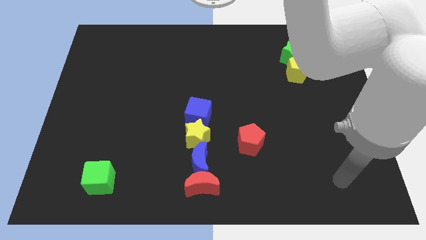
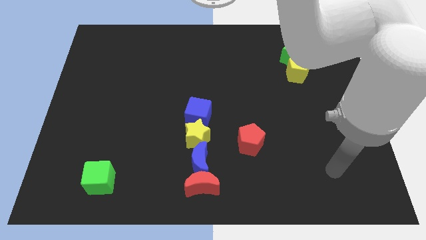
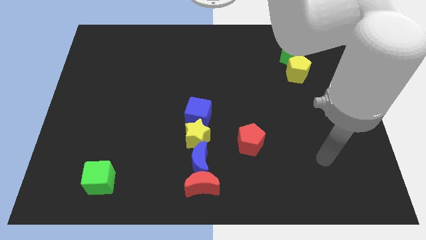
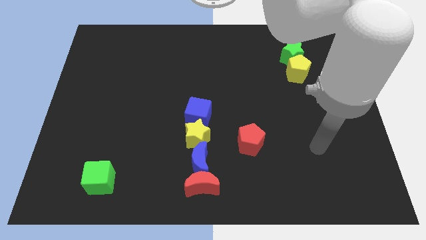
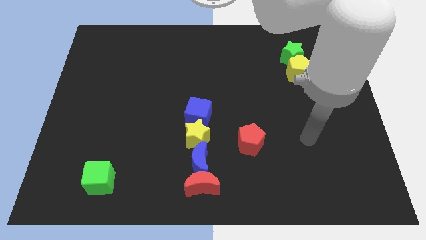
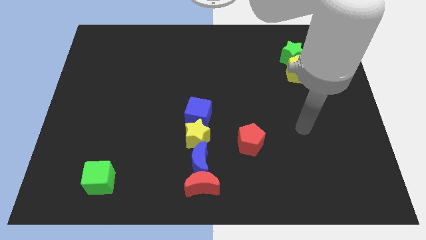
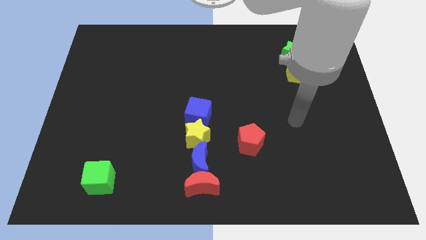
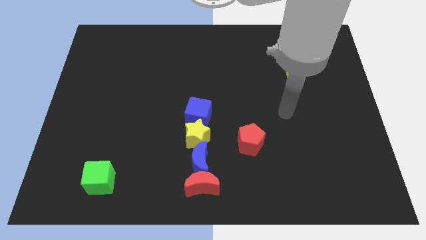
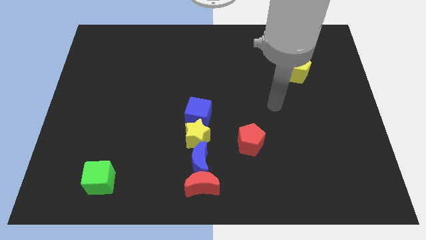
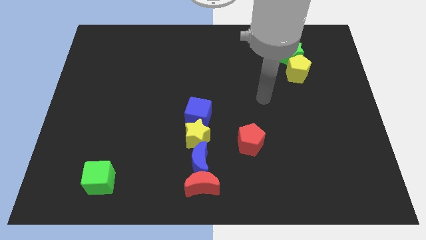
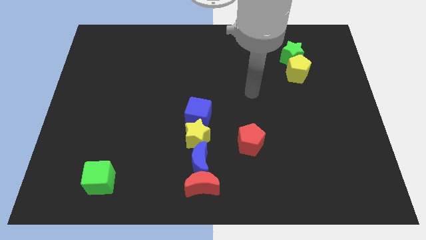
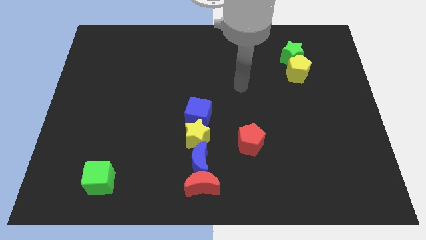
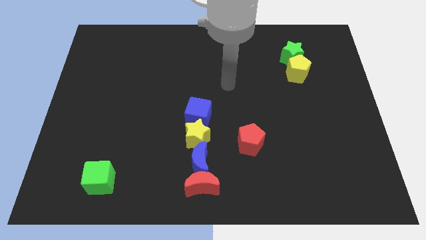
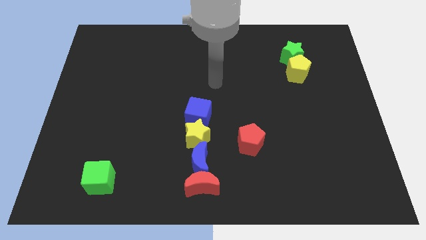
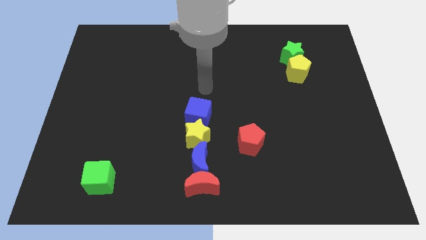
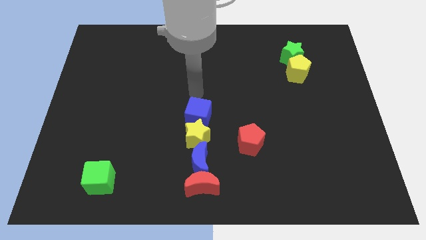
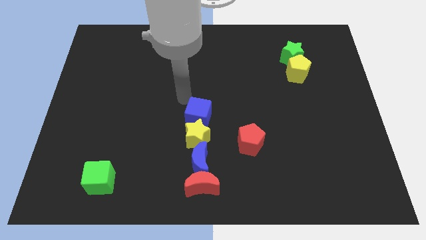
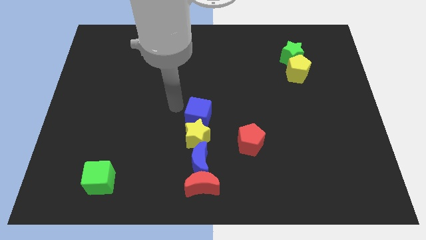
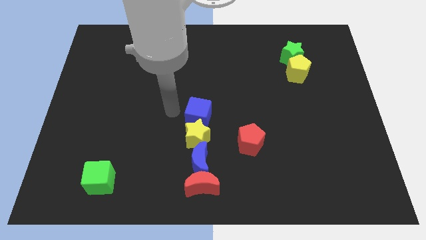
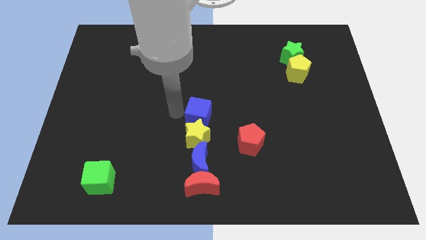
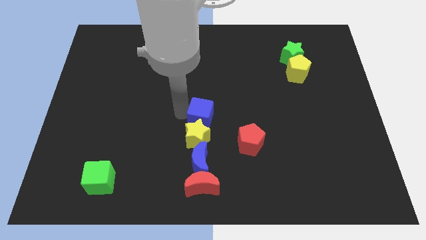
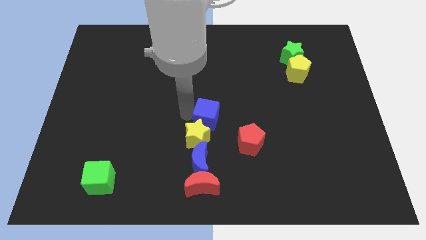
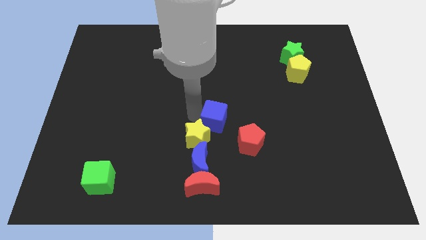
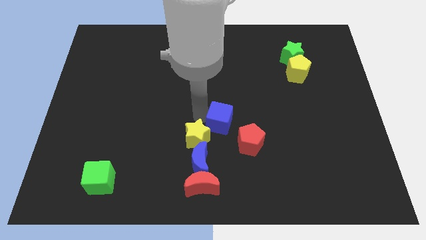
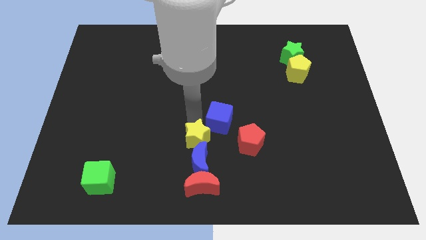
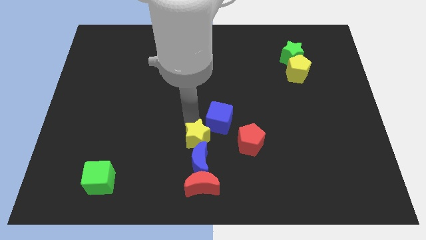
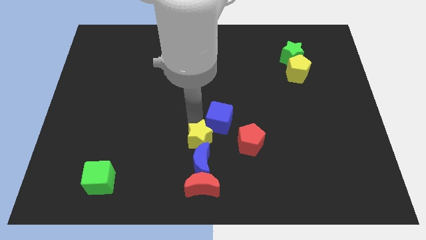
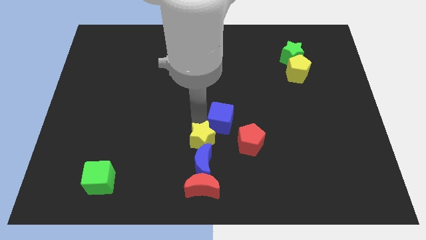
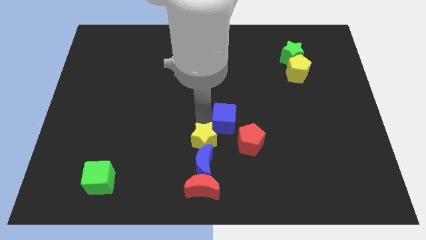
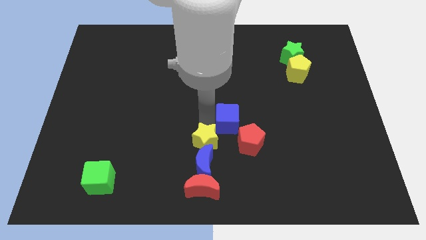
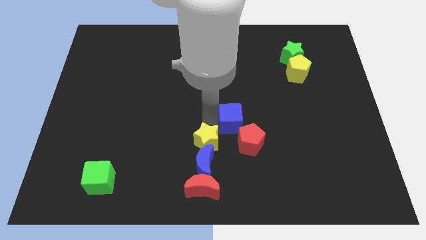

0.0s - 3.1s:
push the blue cube somewhat right

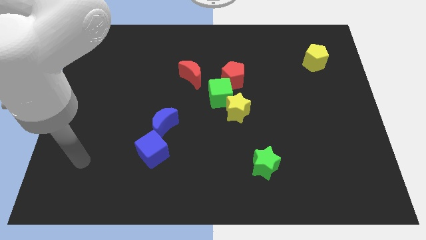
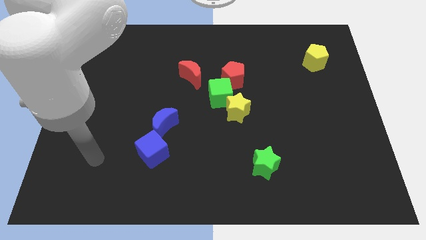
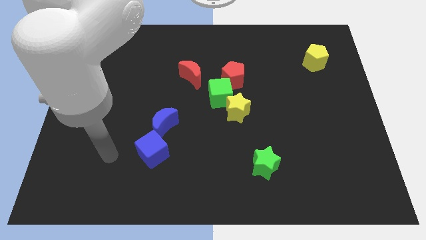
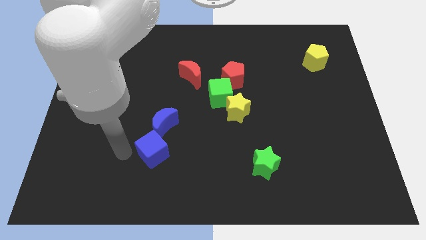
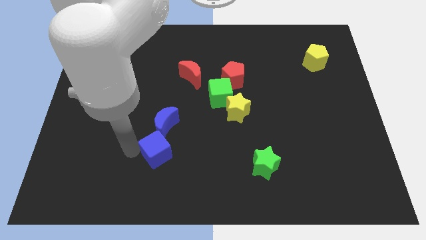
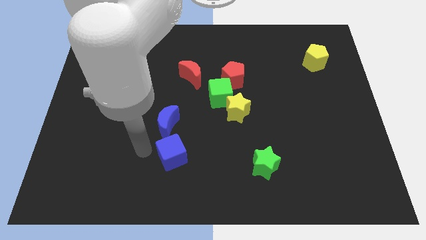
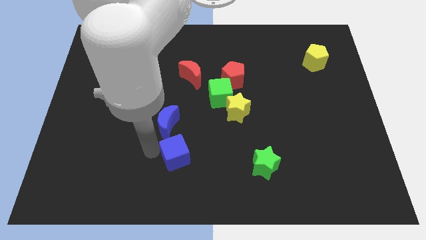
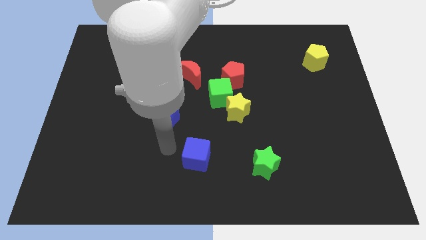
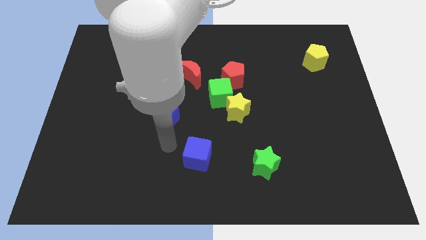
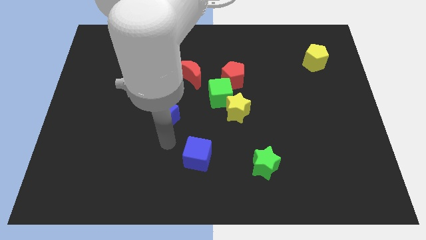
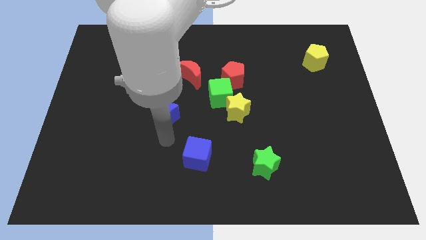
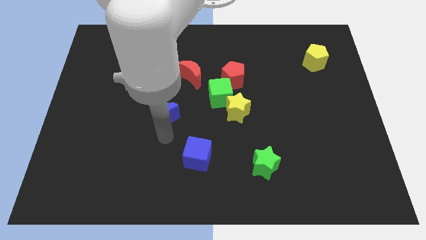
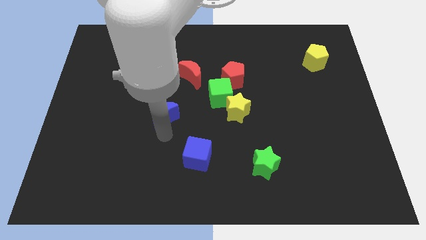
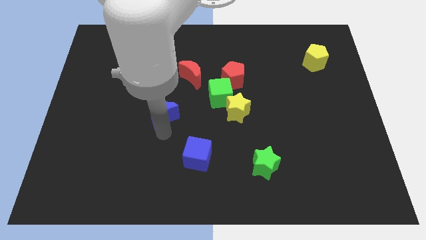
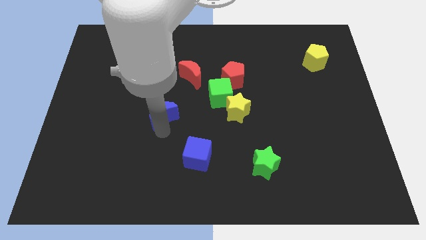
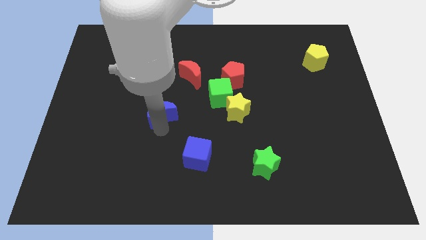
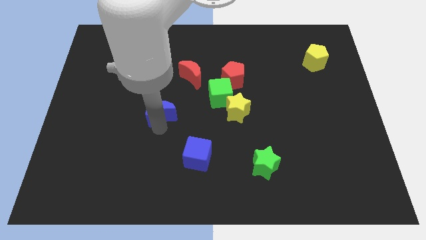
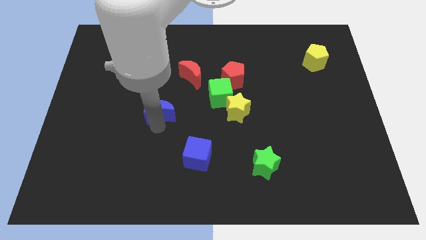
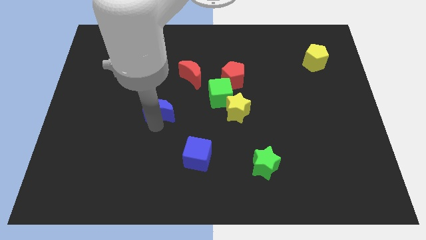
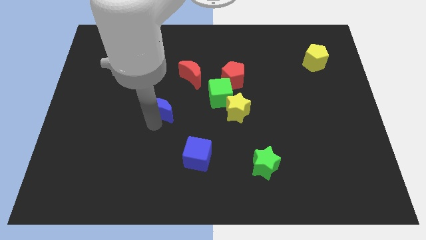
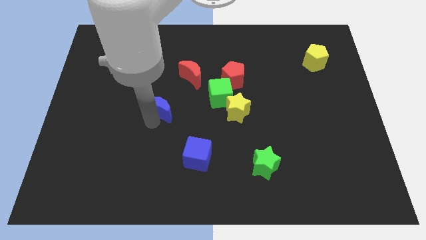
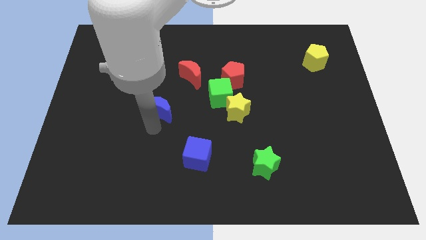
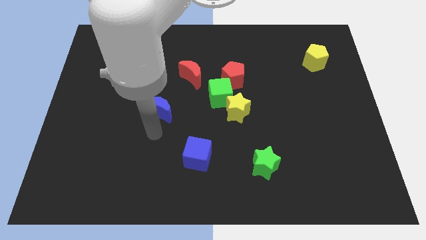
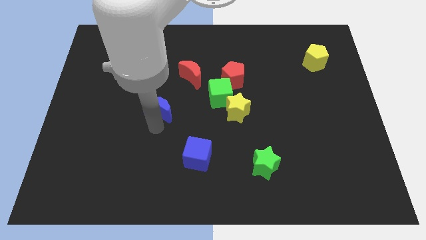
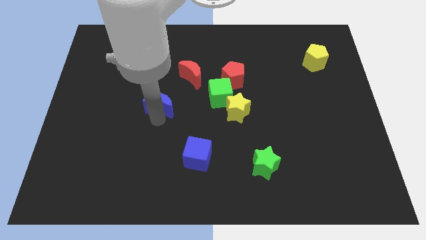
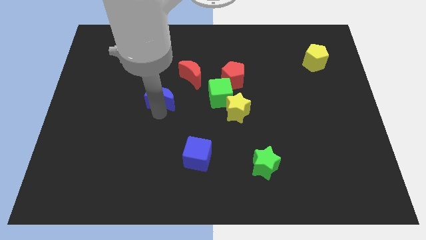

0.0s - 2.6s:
slightly push the blue moon up

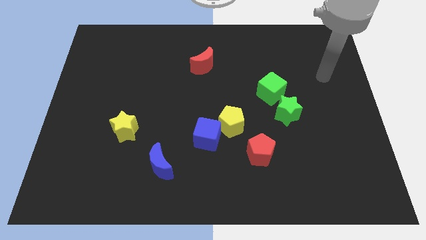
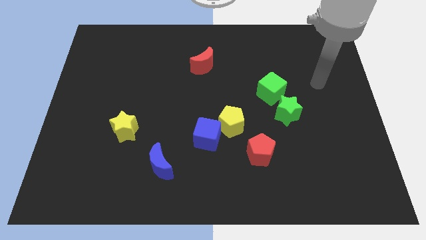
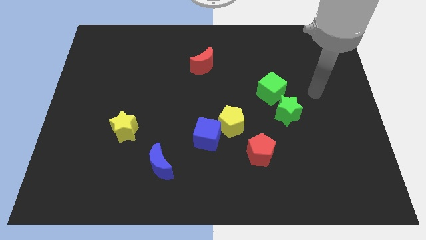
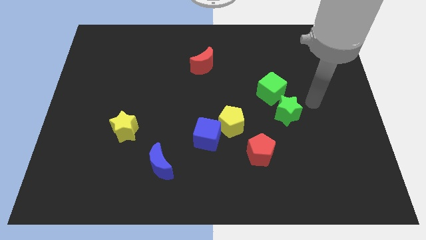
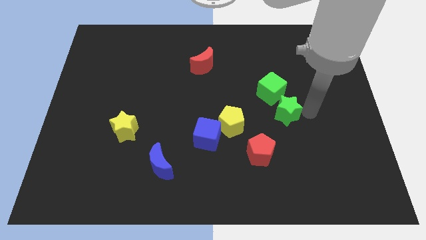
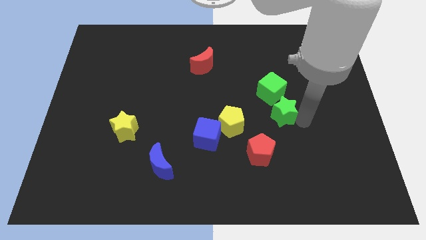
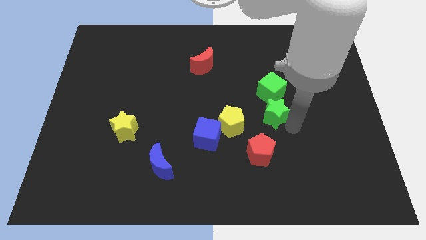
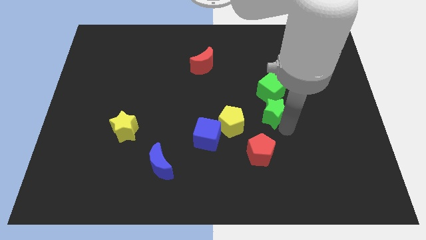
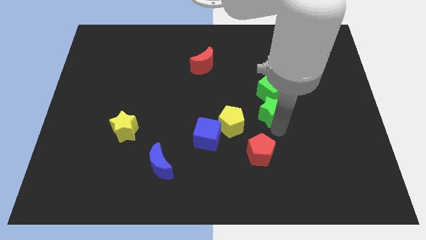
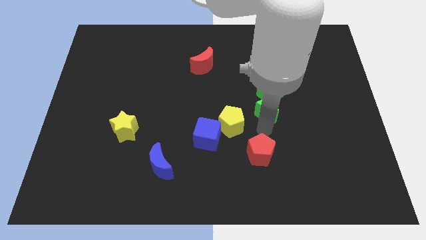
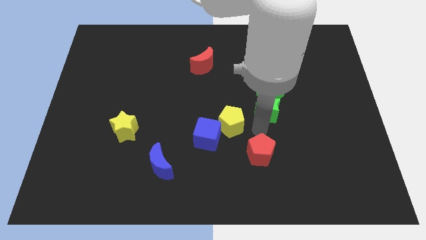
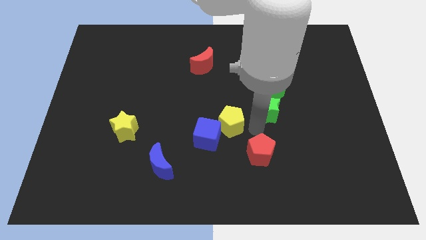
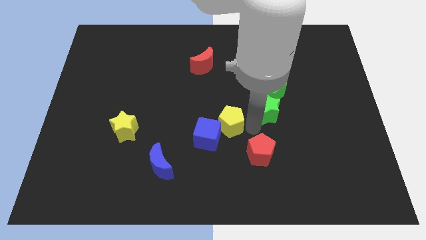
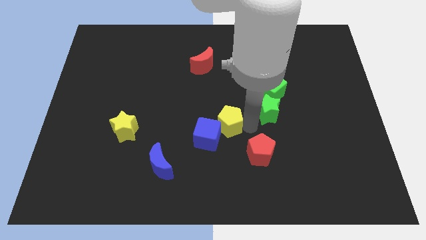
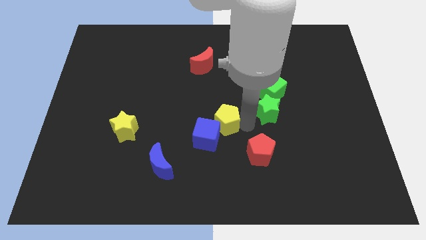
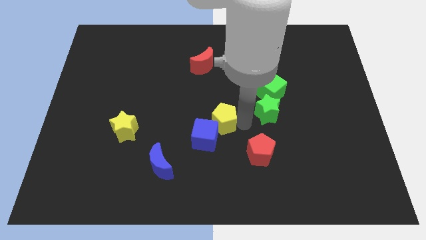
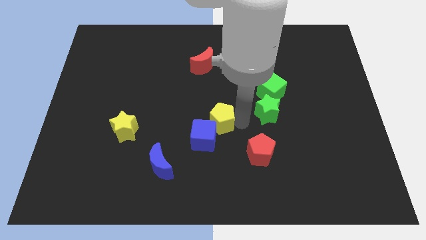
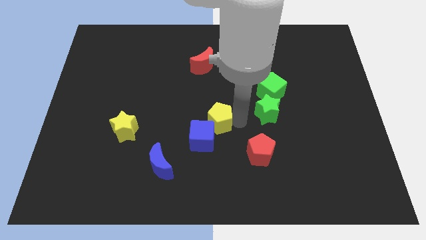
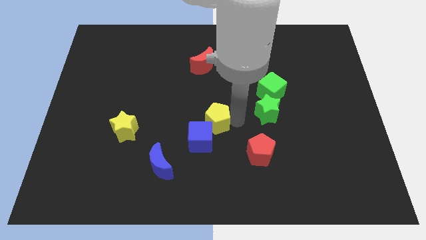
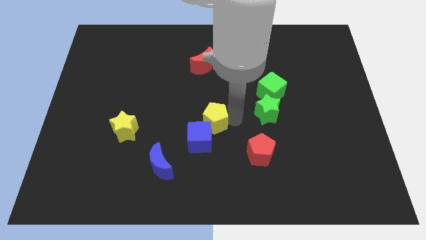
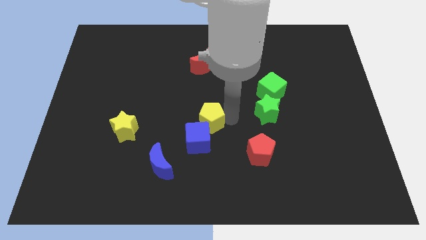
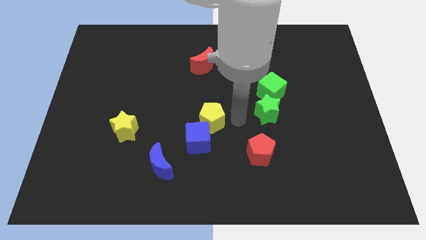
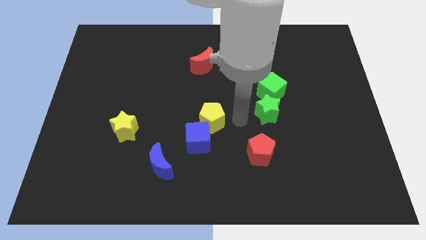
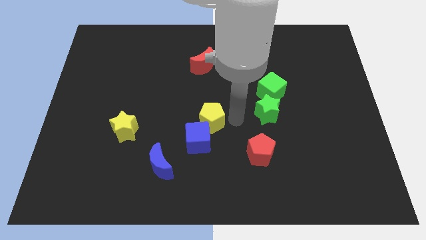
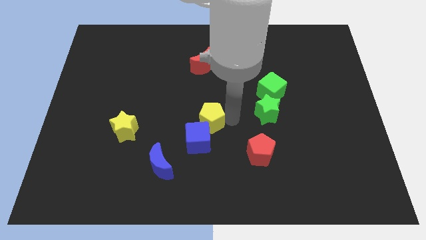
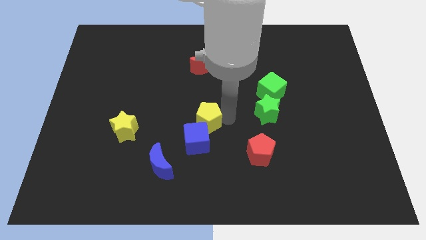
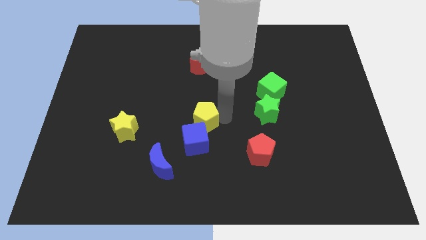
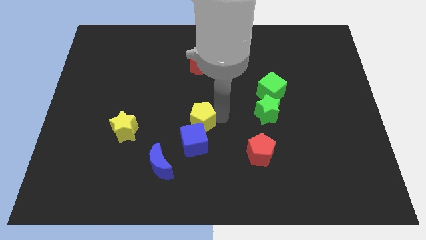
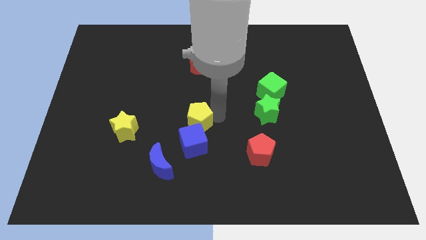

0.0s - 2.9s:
move the yellow pentagon to the left a little bit
